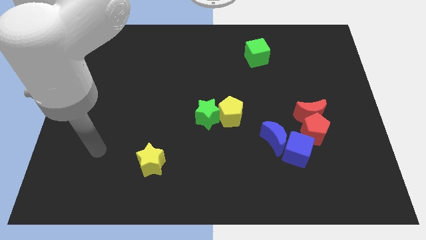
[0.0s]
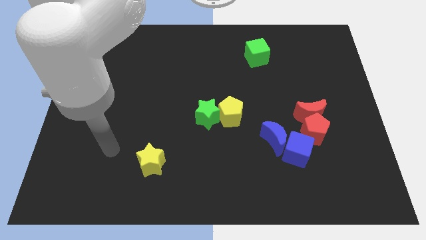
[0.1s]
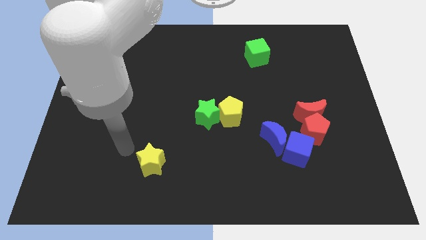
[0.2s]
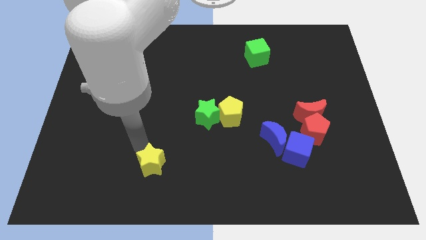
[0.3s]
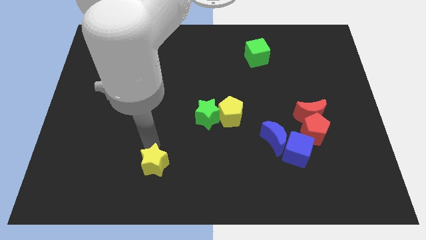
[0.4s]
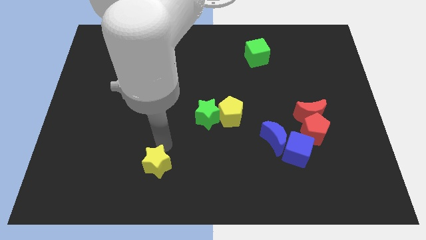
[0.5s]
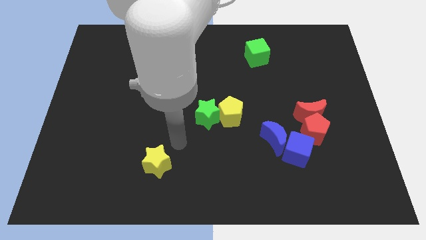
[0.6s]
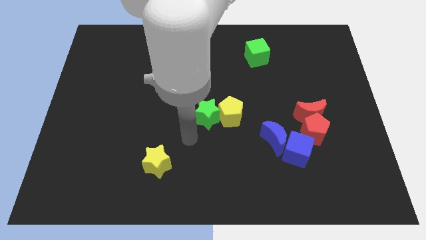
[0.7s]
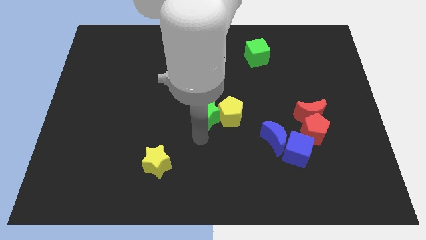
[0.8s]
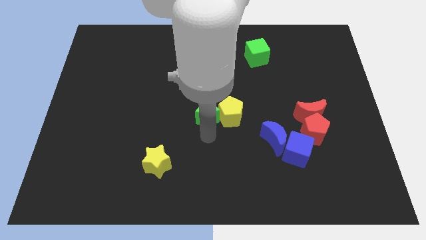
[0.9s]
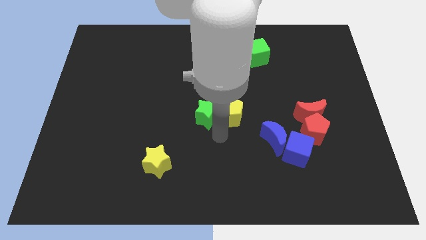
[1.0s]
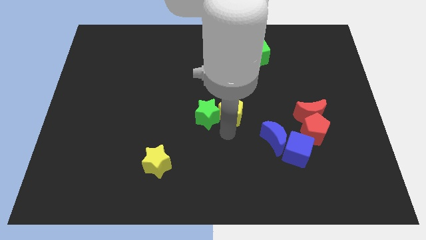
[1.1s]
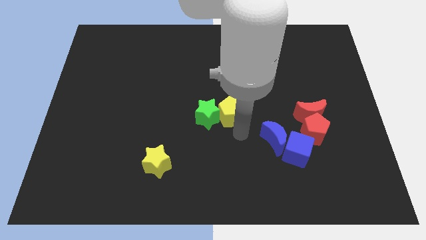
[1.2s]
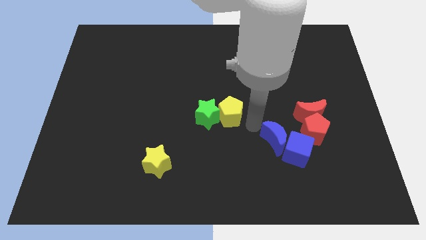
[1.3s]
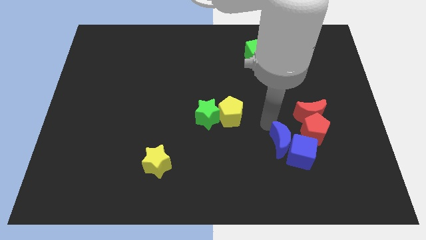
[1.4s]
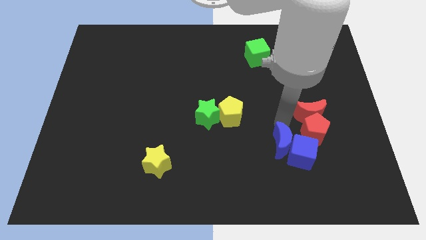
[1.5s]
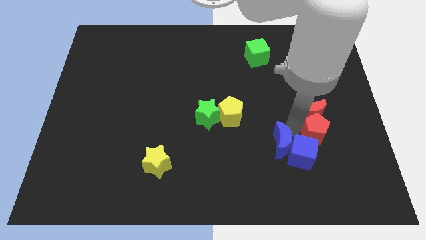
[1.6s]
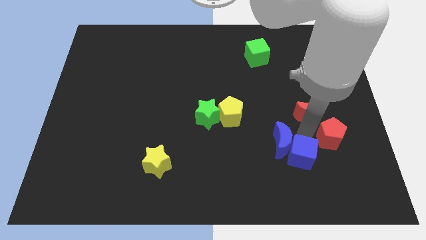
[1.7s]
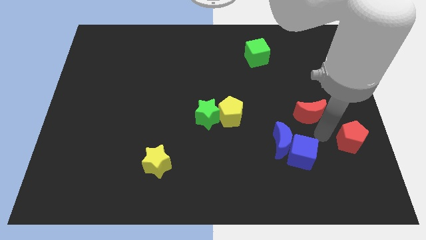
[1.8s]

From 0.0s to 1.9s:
separate the red moon from the red pentagon

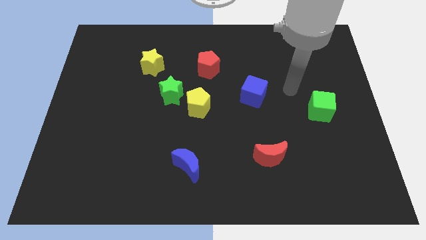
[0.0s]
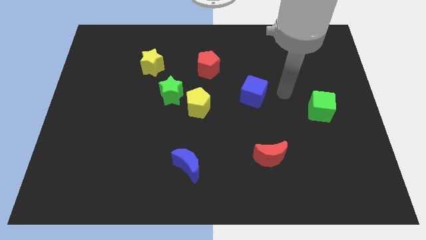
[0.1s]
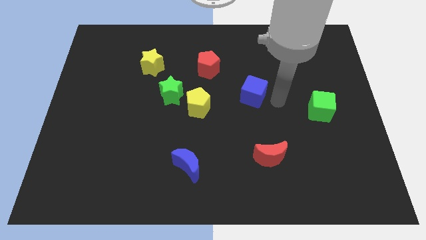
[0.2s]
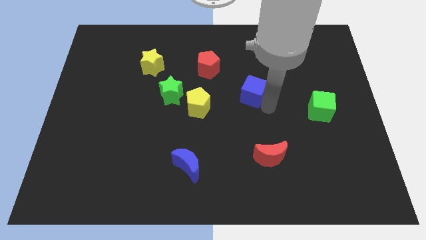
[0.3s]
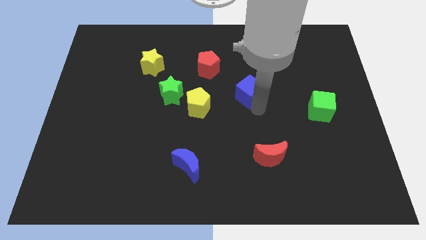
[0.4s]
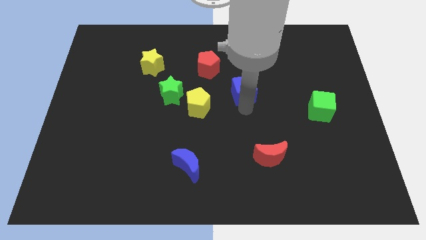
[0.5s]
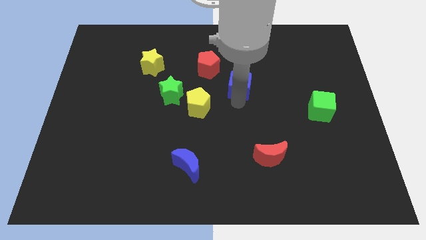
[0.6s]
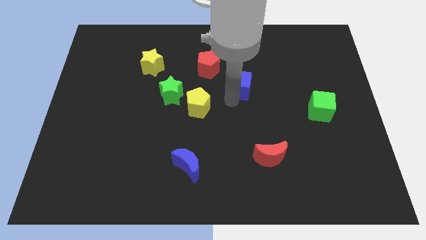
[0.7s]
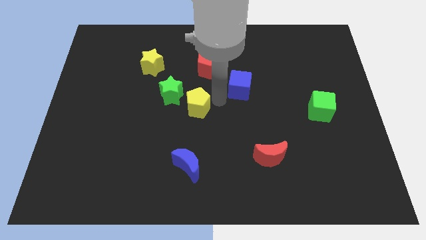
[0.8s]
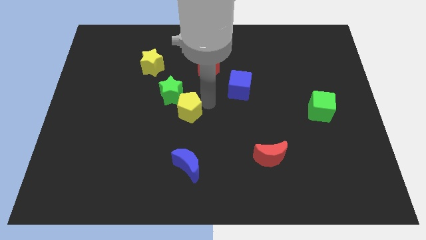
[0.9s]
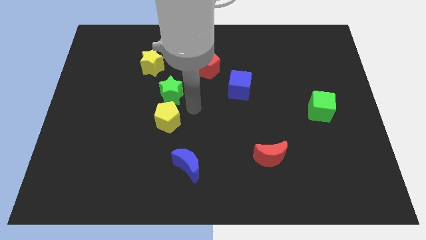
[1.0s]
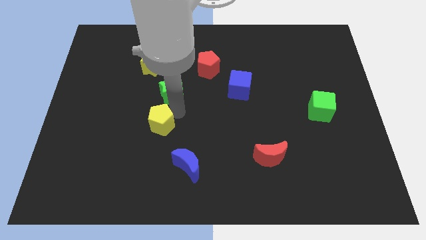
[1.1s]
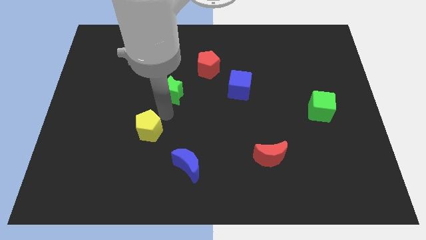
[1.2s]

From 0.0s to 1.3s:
separate the green star from the yellow pentagon

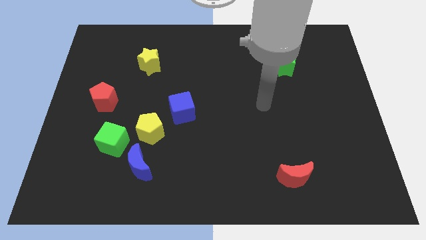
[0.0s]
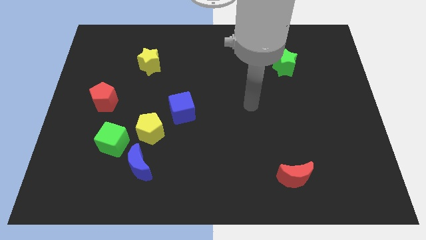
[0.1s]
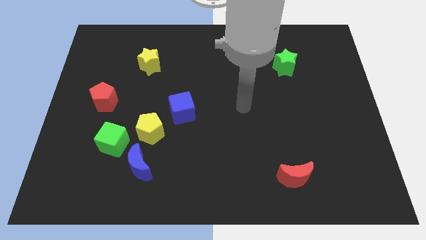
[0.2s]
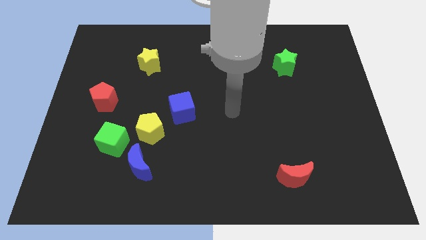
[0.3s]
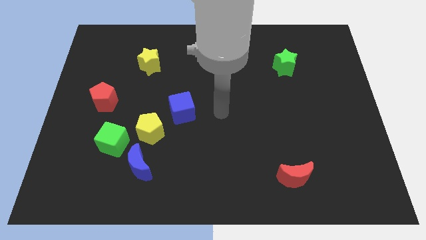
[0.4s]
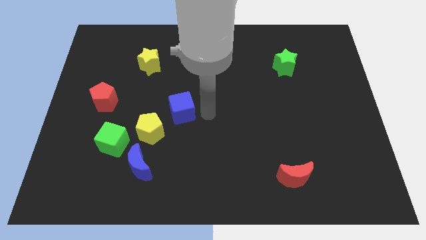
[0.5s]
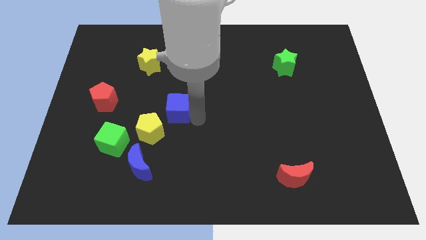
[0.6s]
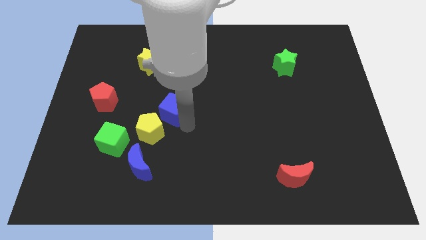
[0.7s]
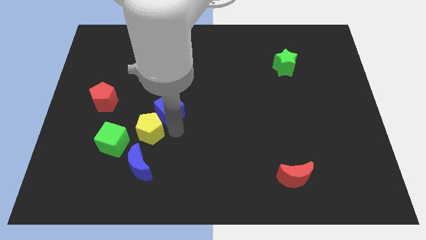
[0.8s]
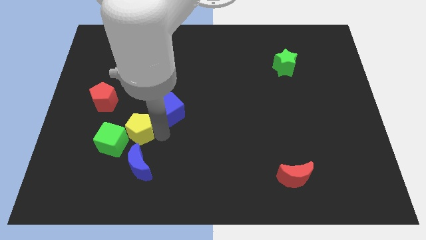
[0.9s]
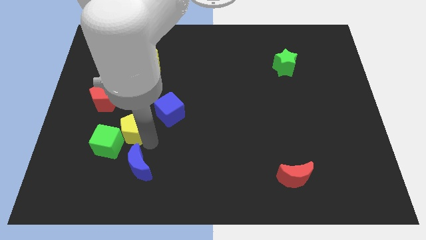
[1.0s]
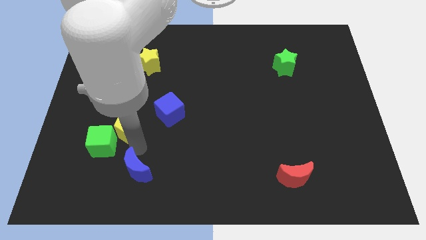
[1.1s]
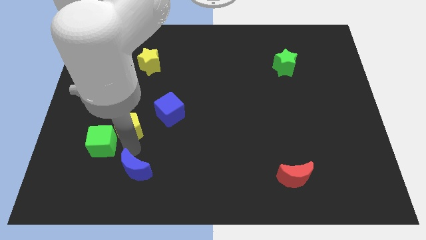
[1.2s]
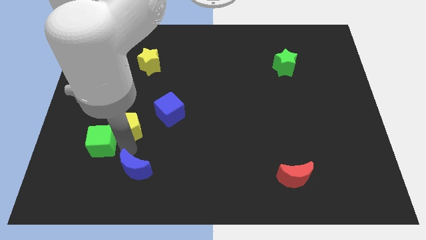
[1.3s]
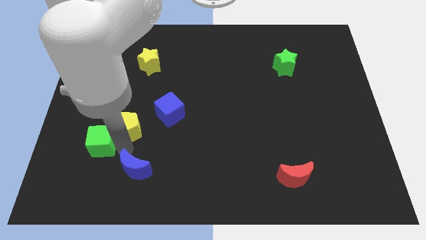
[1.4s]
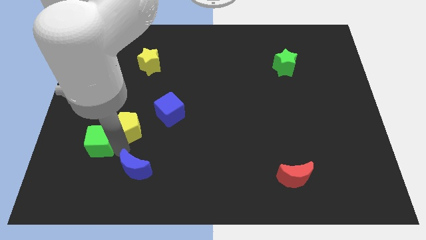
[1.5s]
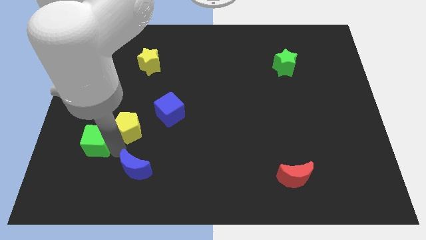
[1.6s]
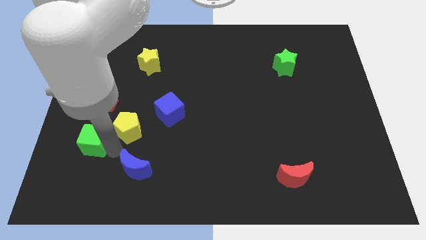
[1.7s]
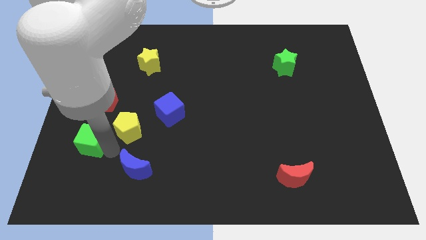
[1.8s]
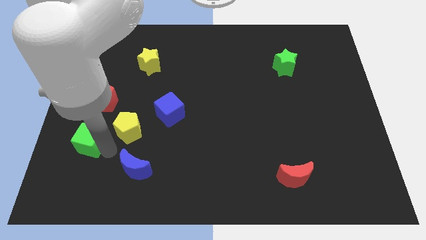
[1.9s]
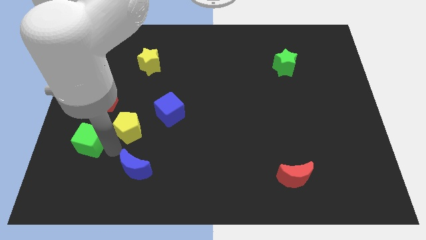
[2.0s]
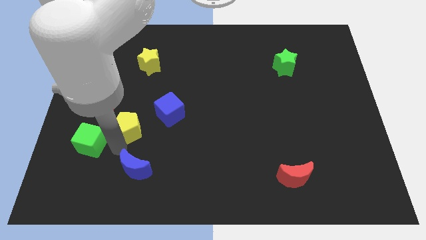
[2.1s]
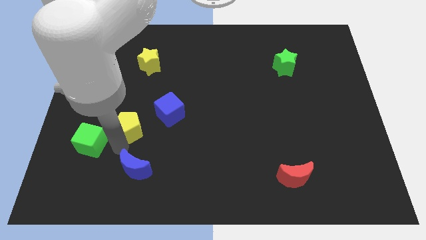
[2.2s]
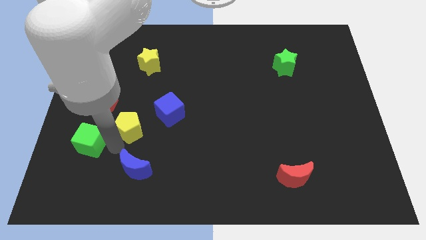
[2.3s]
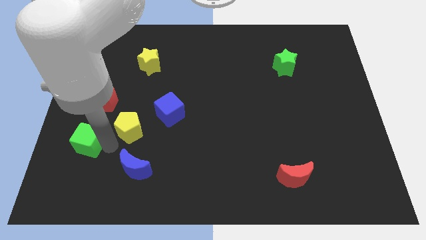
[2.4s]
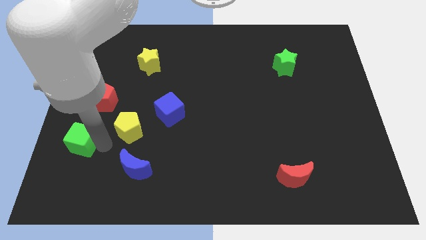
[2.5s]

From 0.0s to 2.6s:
separate the green cube from the yellow pentagon and blue moon

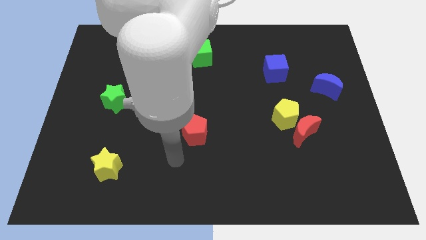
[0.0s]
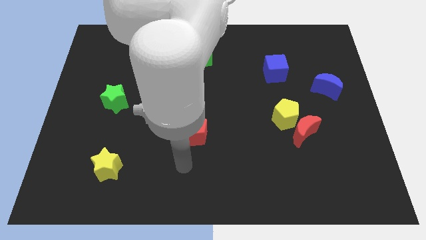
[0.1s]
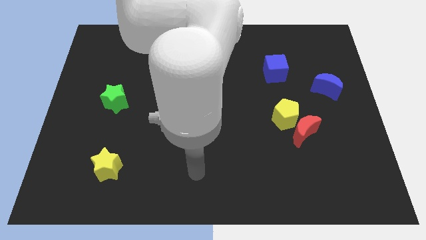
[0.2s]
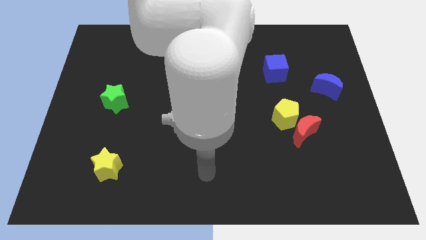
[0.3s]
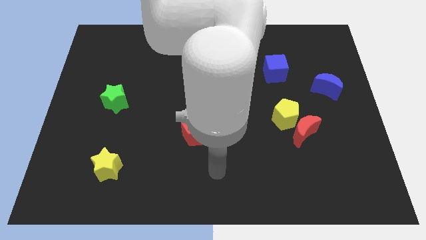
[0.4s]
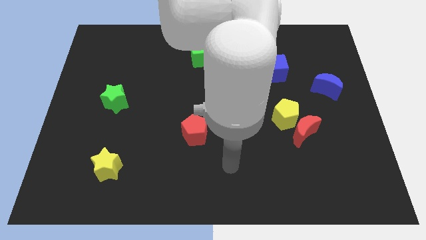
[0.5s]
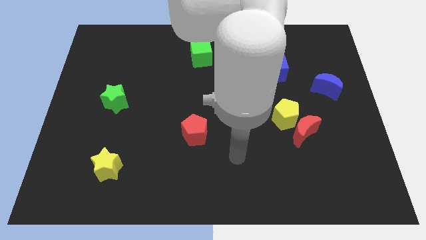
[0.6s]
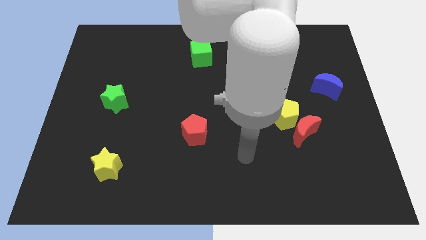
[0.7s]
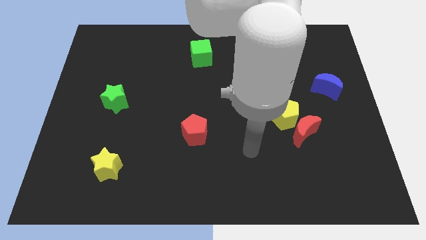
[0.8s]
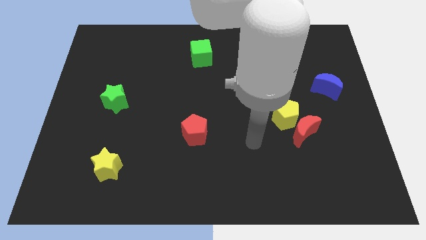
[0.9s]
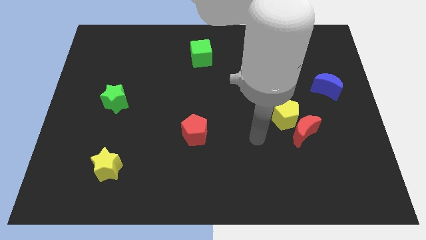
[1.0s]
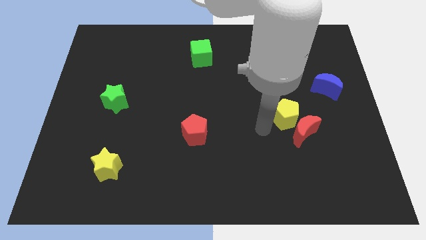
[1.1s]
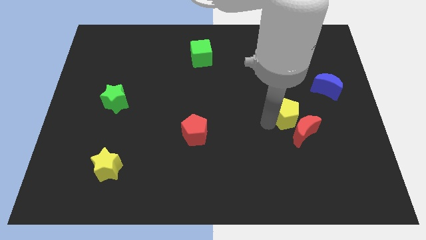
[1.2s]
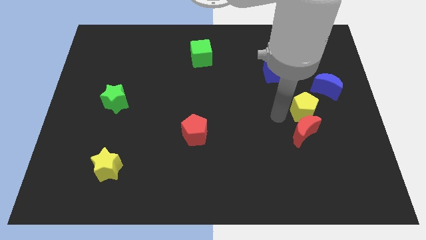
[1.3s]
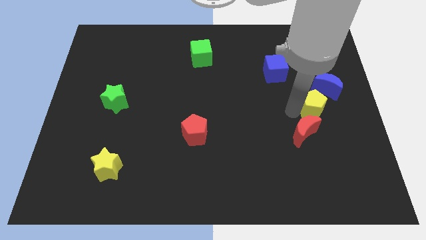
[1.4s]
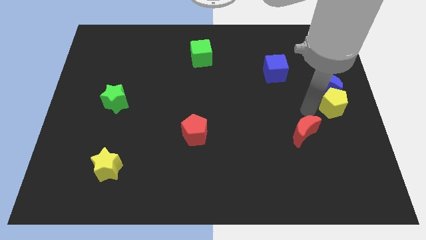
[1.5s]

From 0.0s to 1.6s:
separate the red moon from the yellow pentagon

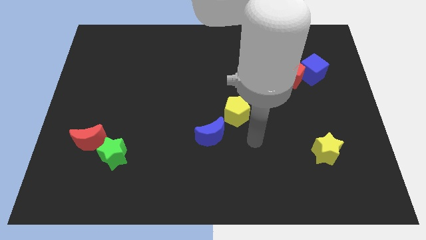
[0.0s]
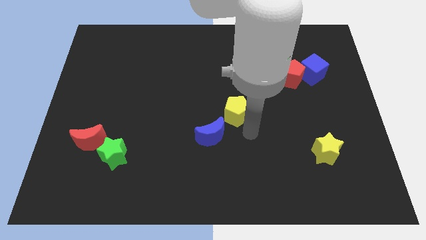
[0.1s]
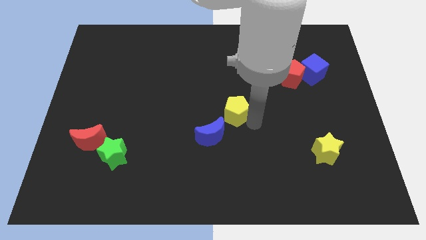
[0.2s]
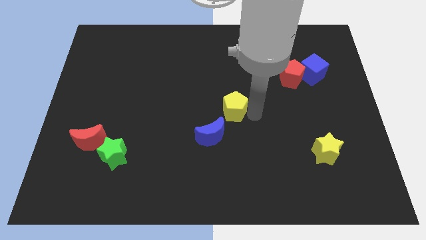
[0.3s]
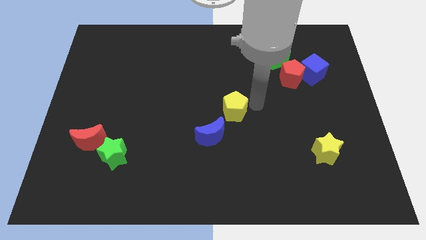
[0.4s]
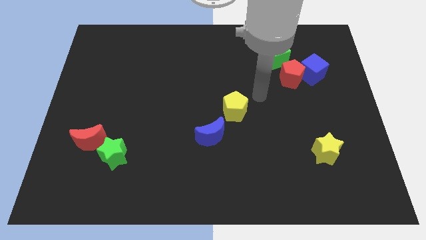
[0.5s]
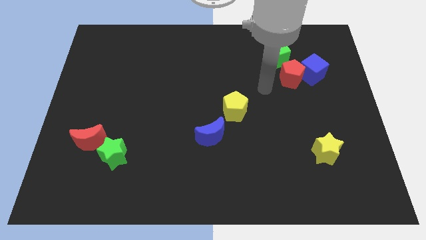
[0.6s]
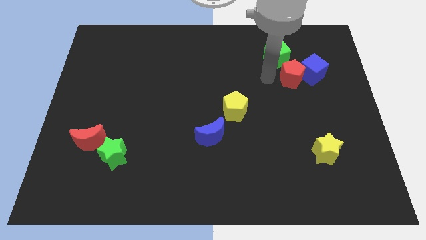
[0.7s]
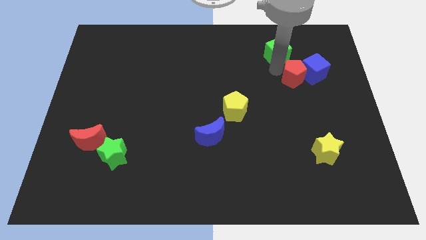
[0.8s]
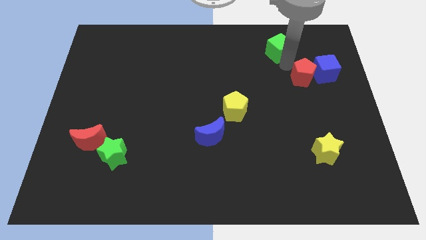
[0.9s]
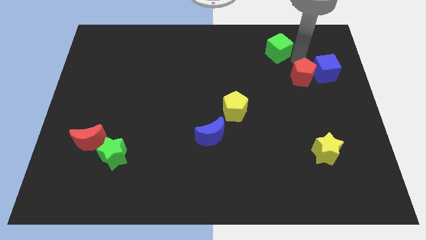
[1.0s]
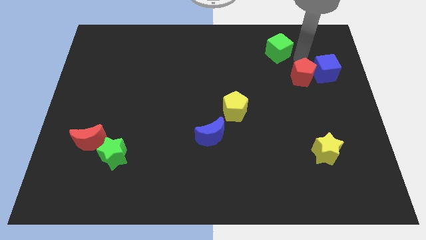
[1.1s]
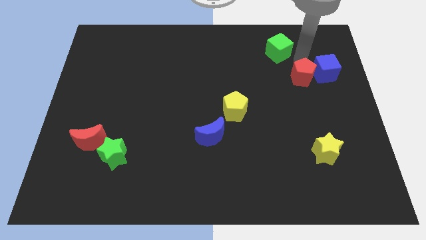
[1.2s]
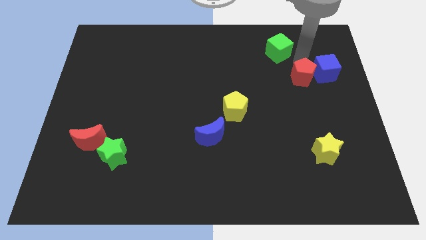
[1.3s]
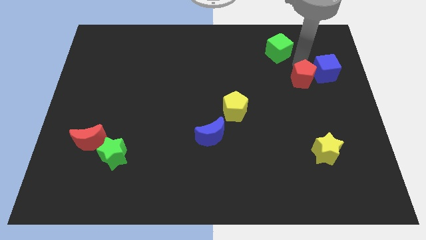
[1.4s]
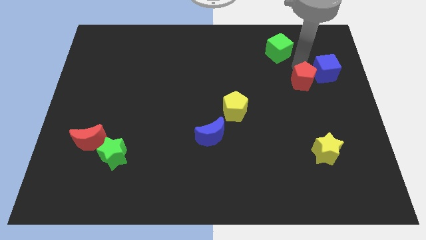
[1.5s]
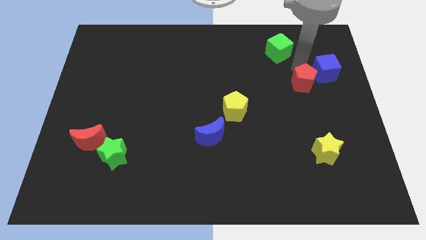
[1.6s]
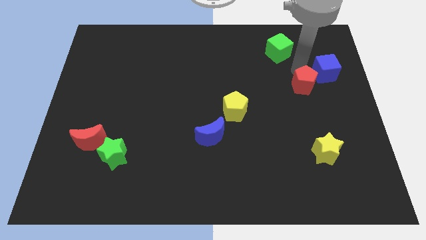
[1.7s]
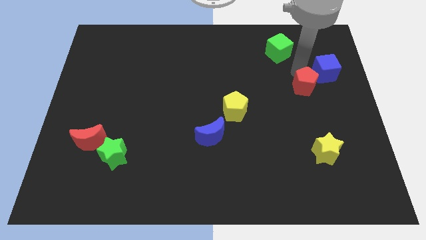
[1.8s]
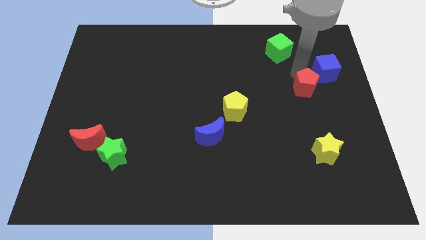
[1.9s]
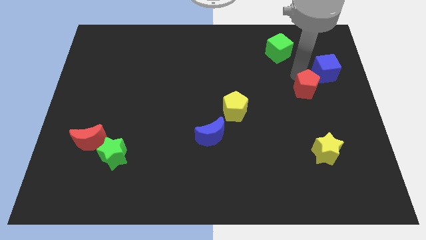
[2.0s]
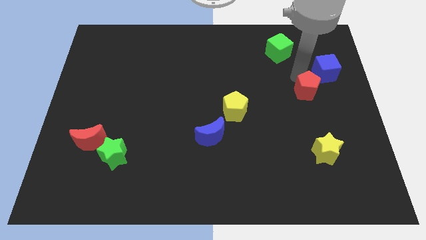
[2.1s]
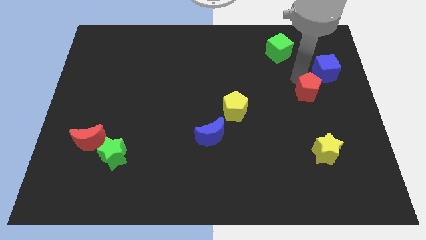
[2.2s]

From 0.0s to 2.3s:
move the red pentagon away from the blue cube and green cube
